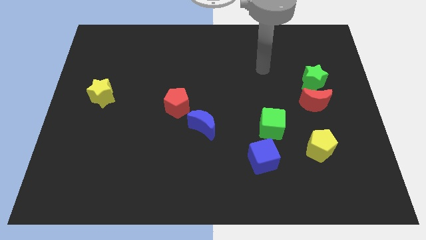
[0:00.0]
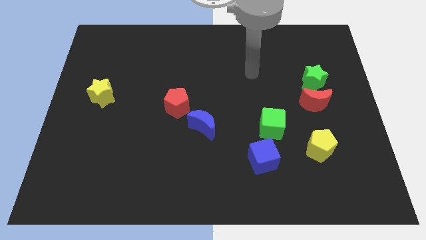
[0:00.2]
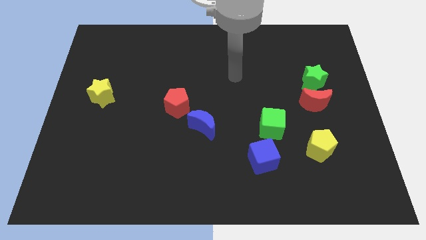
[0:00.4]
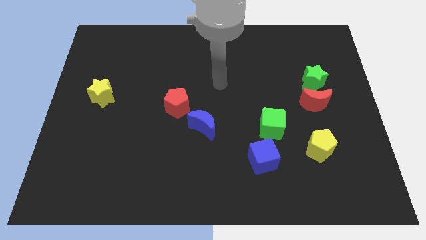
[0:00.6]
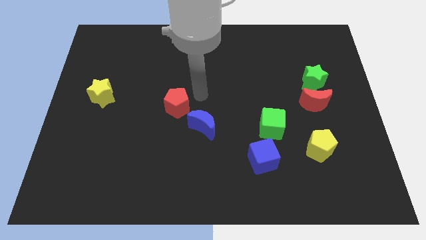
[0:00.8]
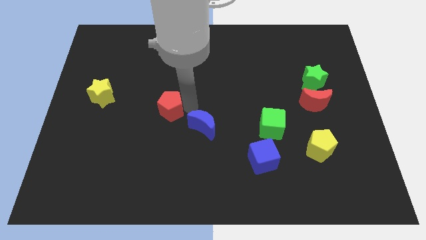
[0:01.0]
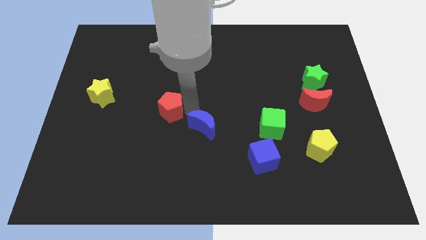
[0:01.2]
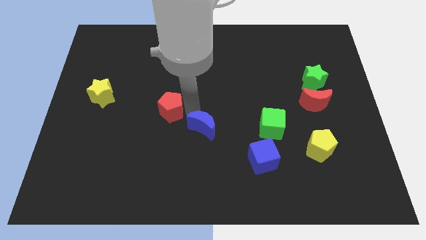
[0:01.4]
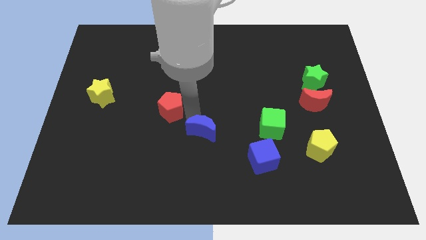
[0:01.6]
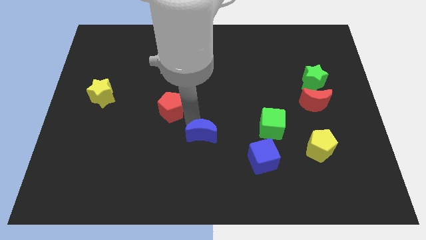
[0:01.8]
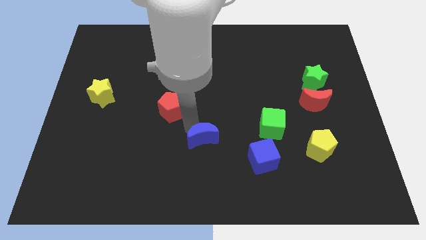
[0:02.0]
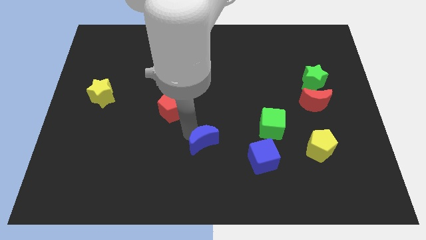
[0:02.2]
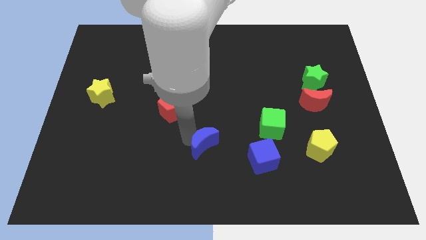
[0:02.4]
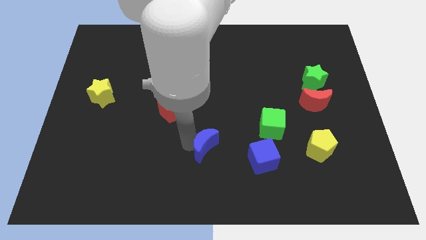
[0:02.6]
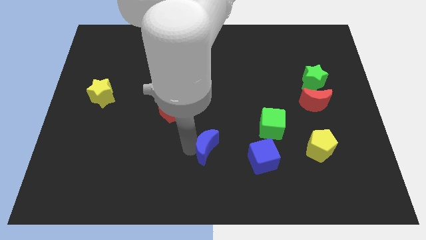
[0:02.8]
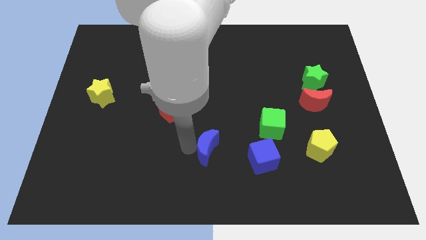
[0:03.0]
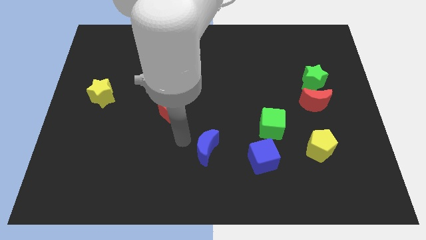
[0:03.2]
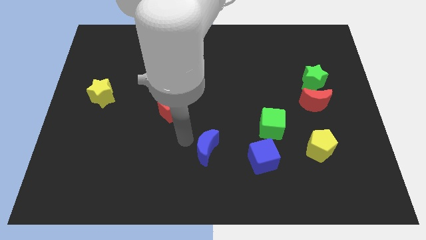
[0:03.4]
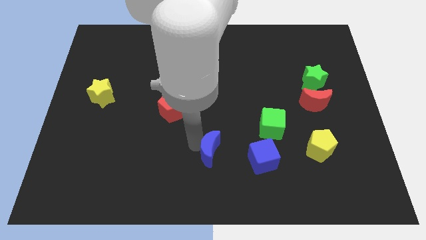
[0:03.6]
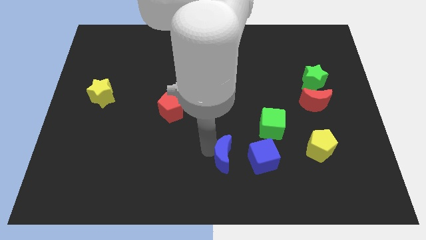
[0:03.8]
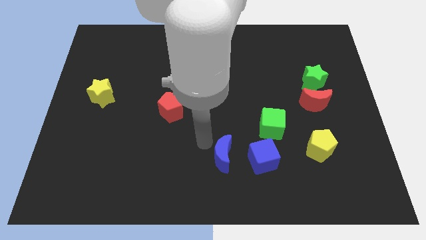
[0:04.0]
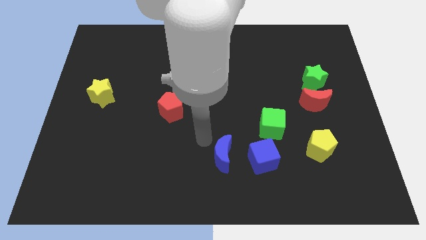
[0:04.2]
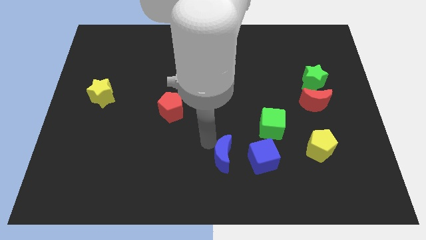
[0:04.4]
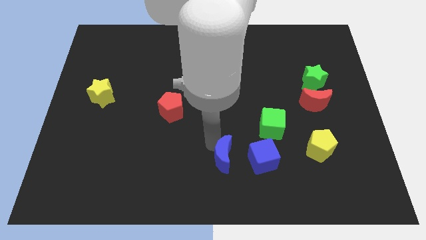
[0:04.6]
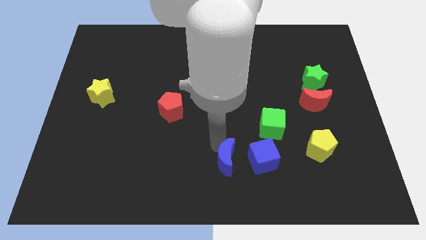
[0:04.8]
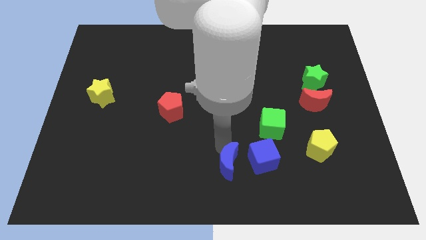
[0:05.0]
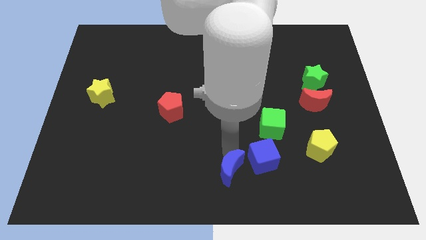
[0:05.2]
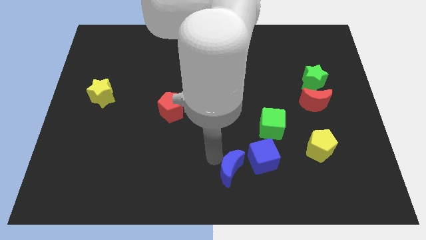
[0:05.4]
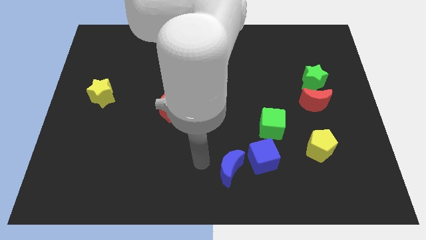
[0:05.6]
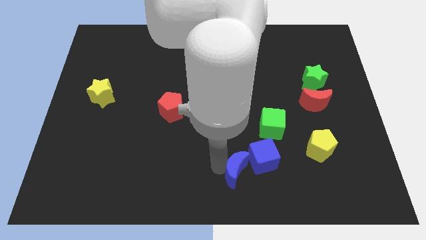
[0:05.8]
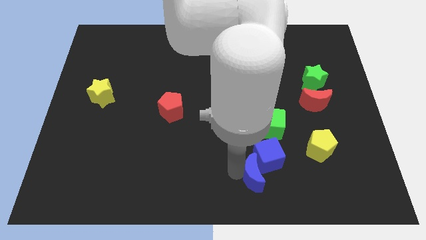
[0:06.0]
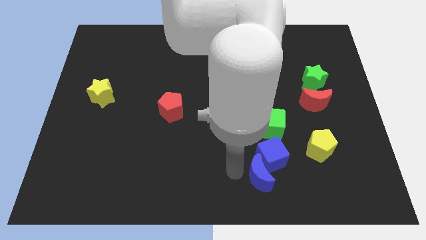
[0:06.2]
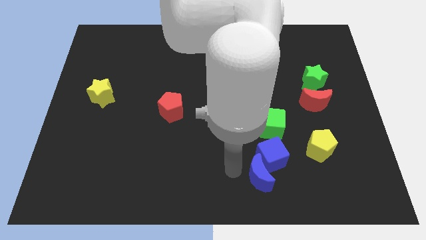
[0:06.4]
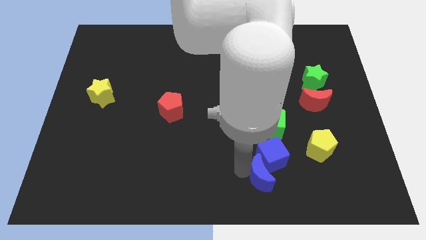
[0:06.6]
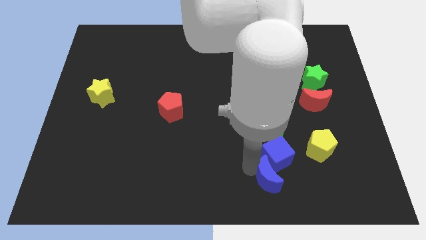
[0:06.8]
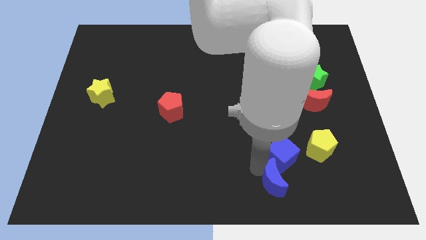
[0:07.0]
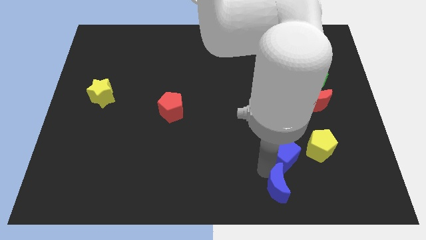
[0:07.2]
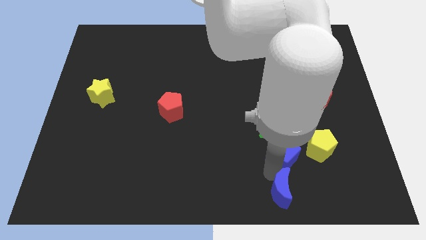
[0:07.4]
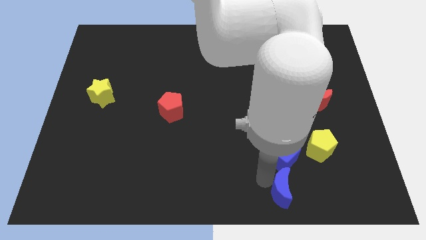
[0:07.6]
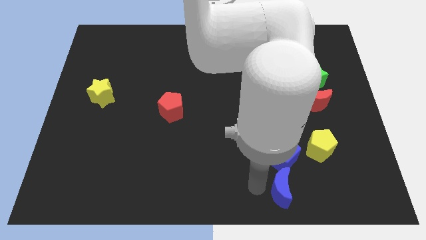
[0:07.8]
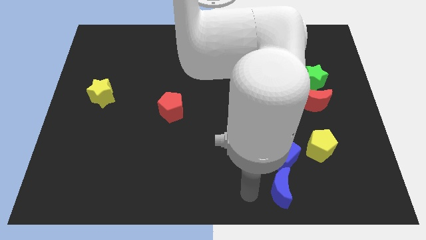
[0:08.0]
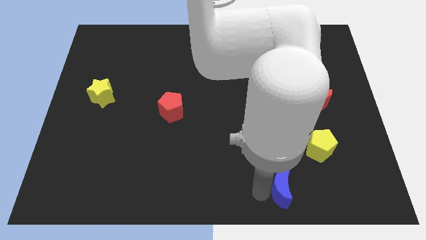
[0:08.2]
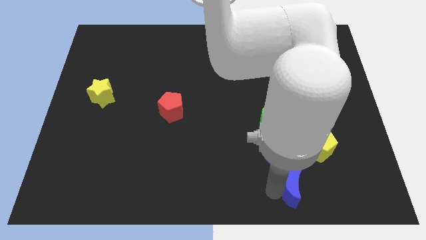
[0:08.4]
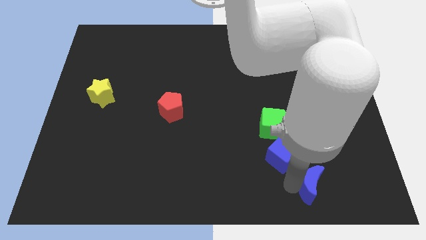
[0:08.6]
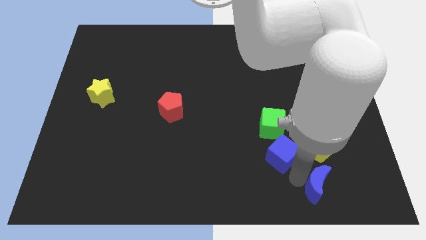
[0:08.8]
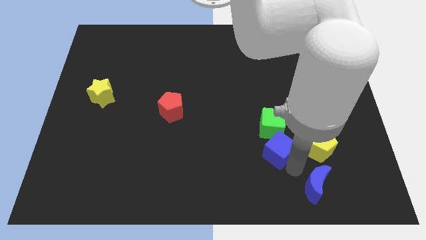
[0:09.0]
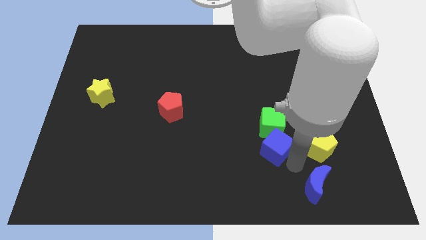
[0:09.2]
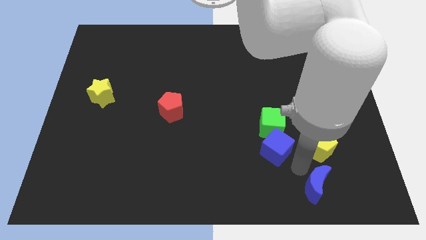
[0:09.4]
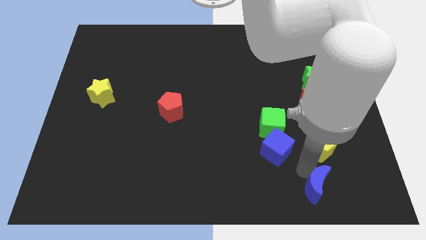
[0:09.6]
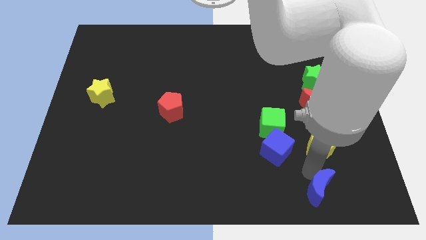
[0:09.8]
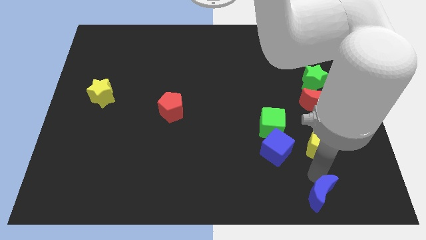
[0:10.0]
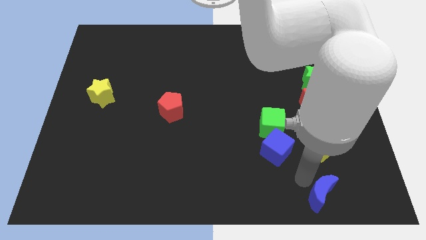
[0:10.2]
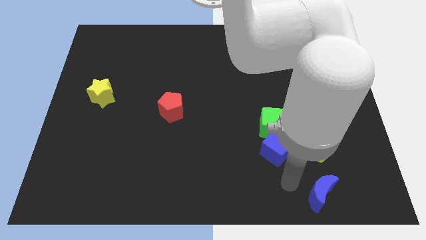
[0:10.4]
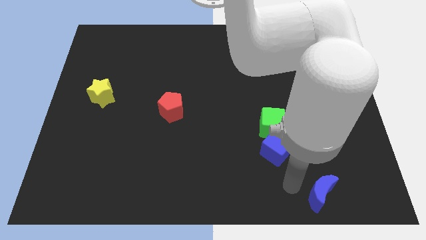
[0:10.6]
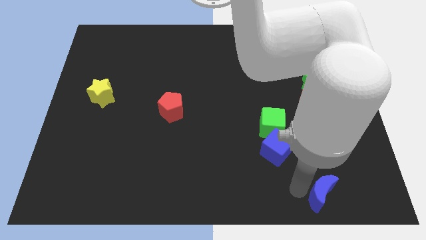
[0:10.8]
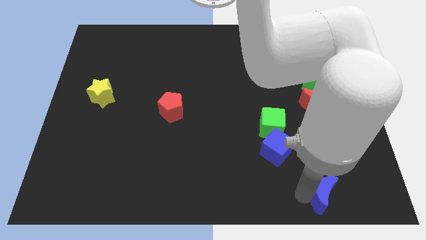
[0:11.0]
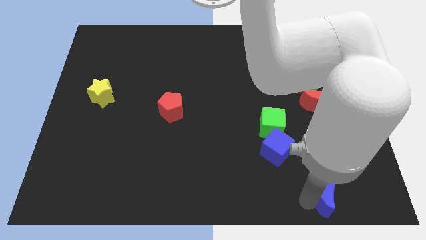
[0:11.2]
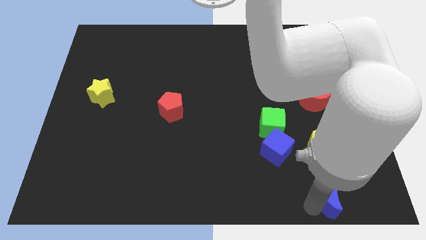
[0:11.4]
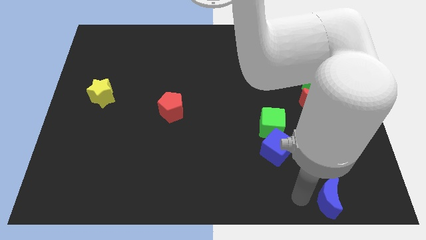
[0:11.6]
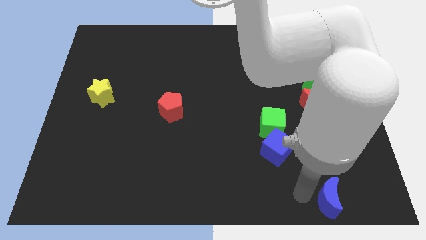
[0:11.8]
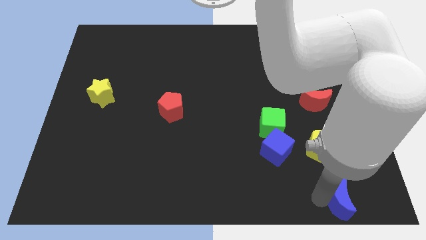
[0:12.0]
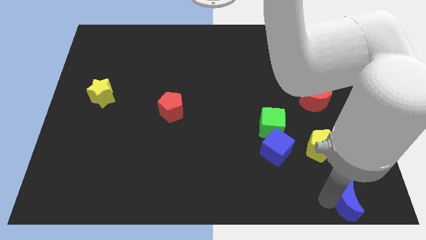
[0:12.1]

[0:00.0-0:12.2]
move the blue moon to the bottom right of the board

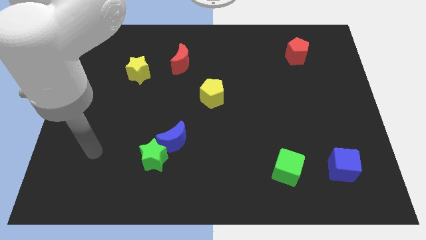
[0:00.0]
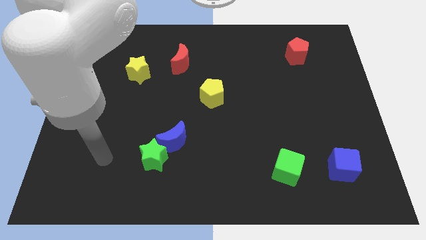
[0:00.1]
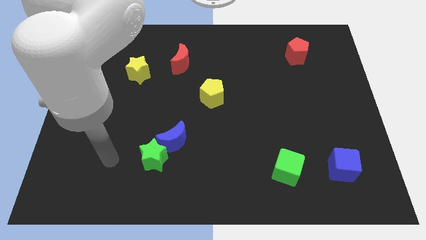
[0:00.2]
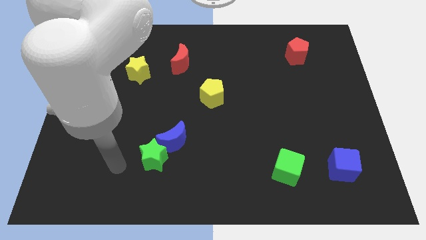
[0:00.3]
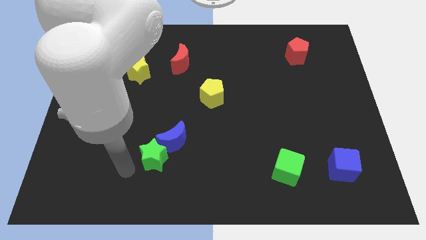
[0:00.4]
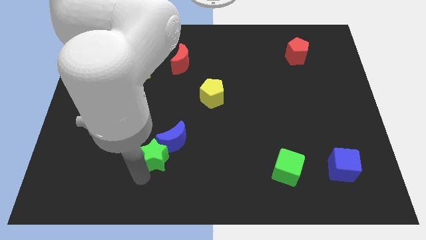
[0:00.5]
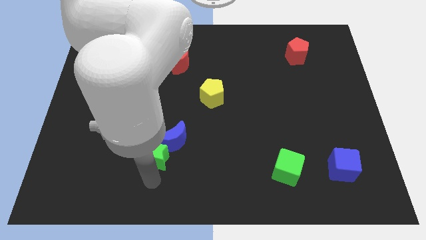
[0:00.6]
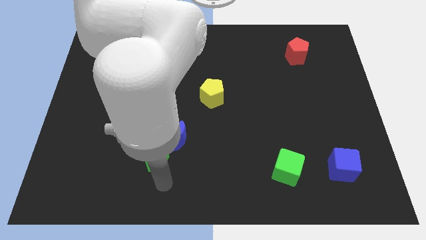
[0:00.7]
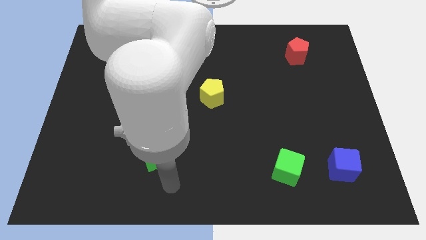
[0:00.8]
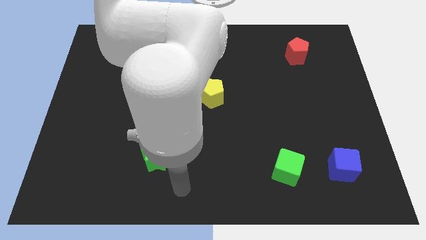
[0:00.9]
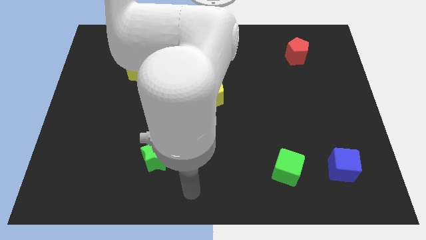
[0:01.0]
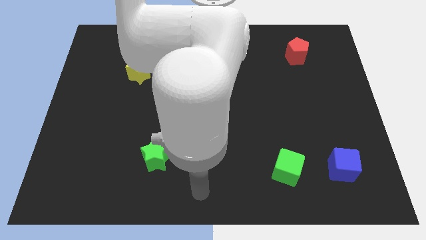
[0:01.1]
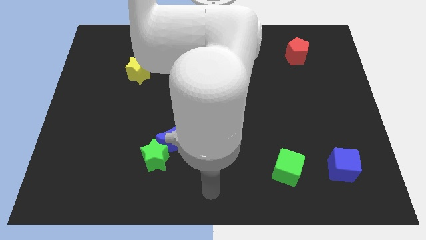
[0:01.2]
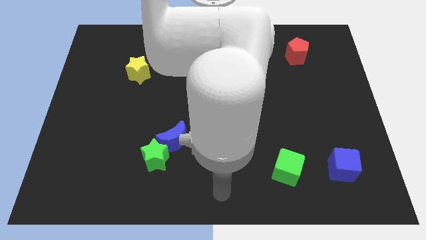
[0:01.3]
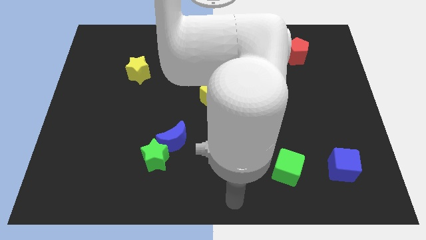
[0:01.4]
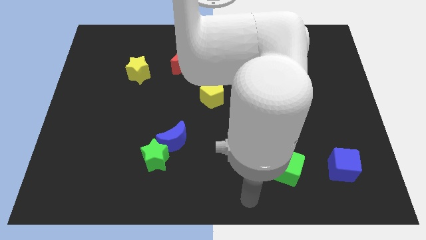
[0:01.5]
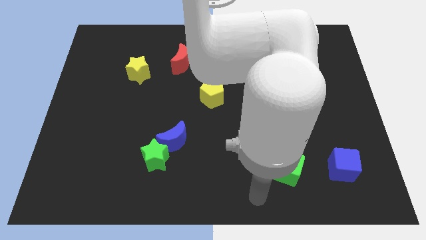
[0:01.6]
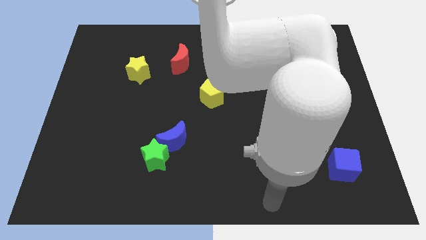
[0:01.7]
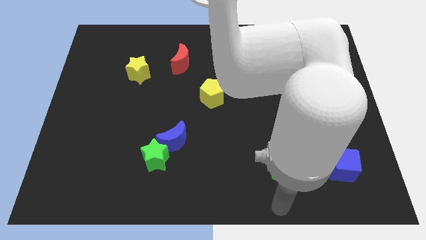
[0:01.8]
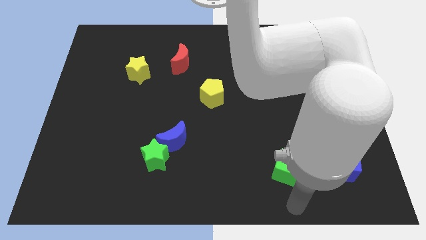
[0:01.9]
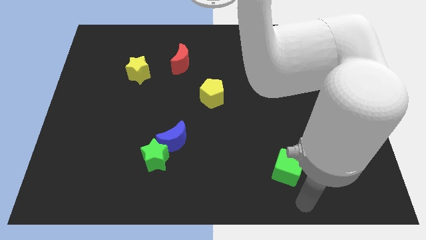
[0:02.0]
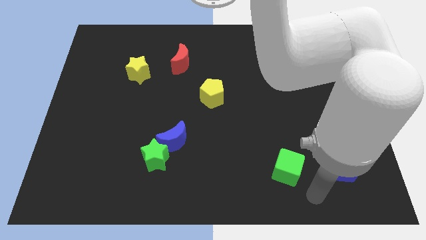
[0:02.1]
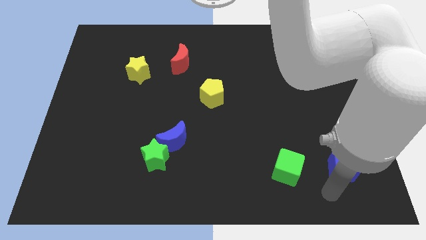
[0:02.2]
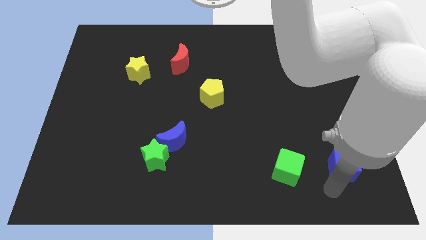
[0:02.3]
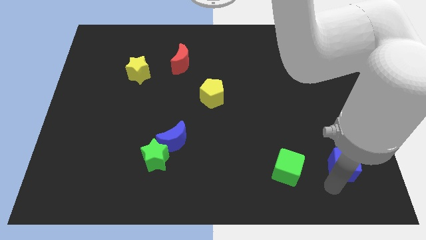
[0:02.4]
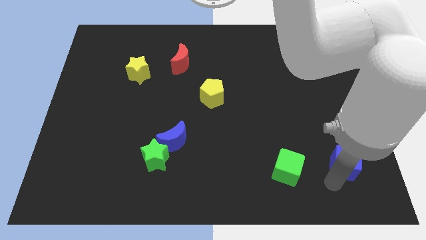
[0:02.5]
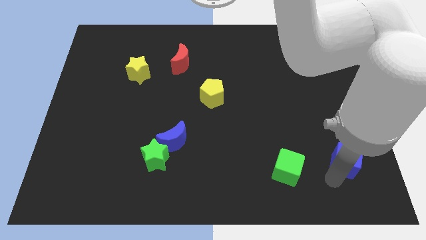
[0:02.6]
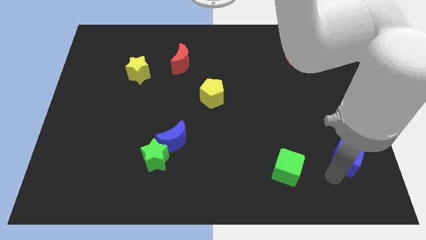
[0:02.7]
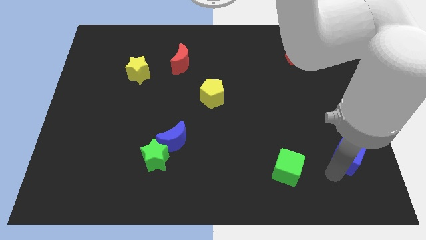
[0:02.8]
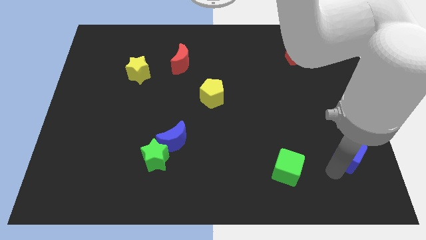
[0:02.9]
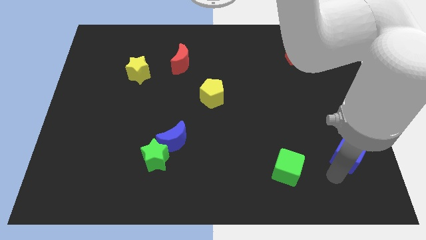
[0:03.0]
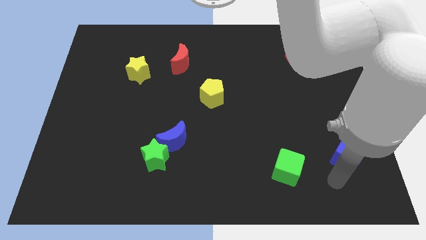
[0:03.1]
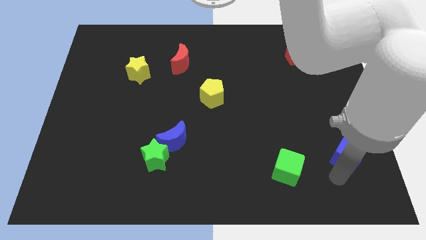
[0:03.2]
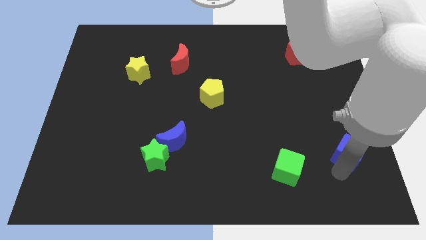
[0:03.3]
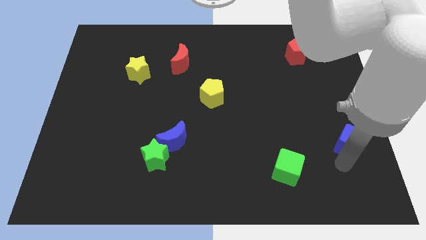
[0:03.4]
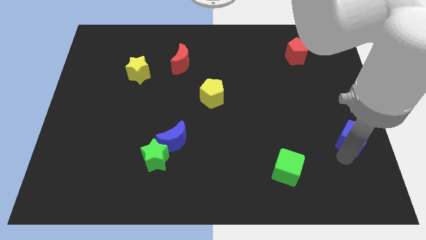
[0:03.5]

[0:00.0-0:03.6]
put the blue cube to the center right
